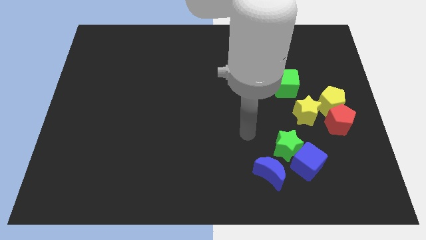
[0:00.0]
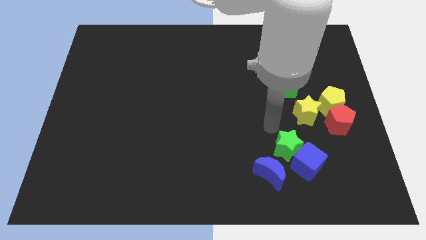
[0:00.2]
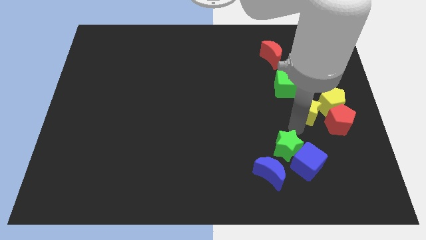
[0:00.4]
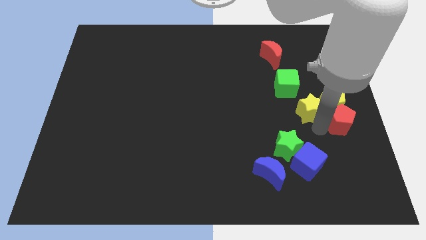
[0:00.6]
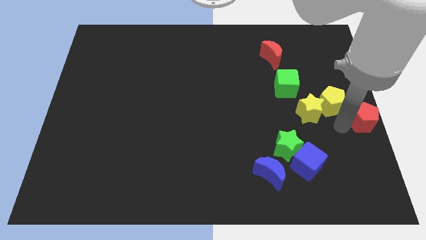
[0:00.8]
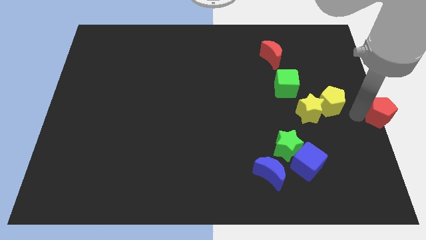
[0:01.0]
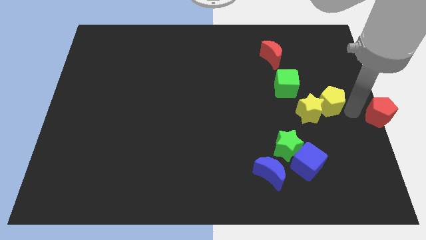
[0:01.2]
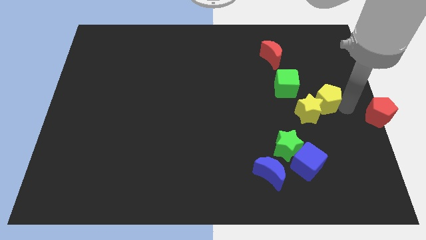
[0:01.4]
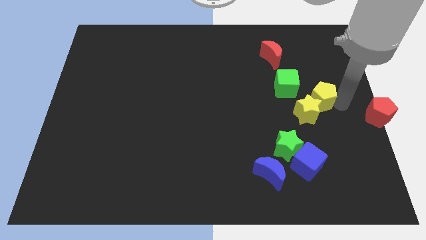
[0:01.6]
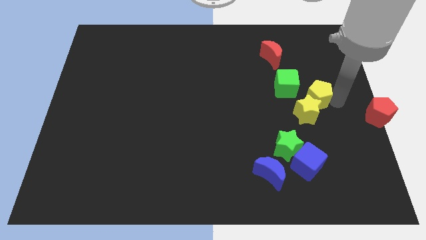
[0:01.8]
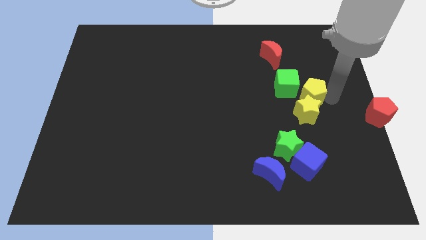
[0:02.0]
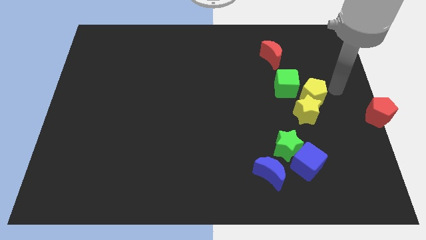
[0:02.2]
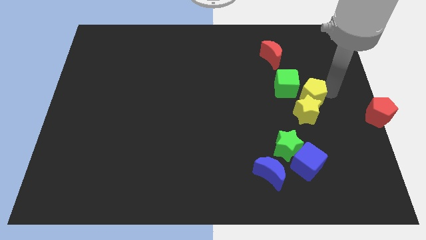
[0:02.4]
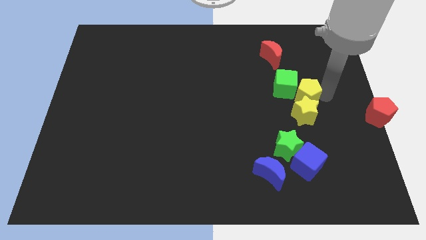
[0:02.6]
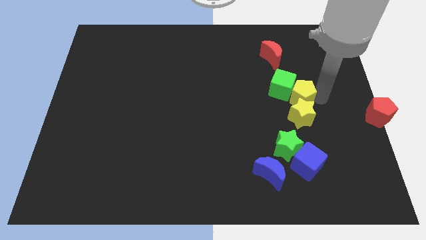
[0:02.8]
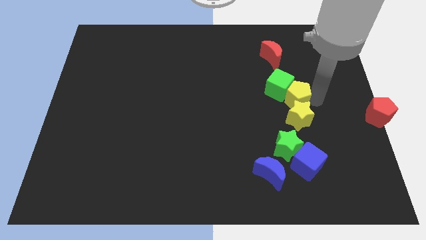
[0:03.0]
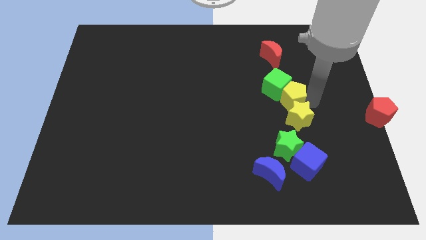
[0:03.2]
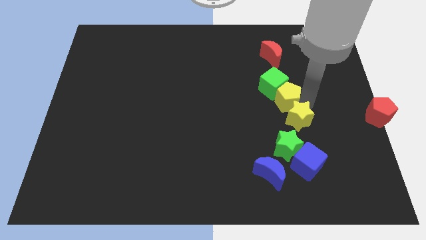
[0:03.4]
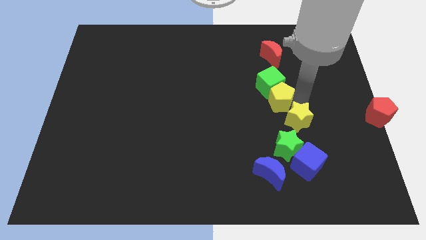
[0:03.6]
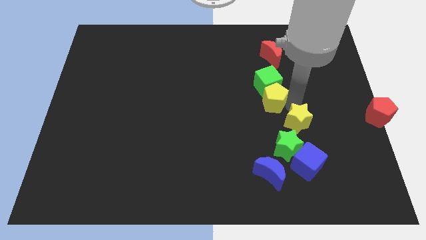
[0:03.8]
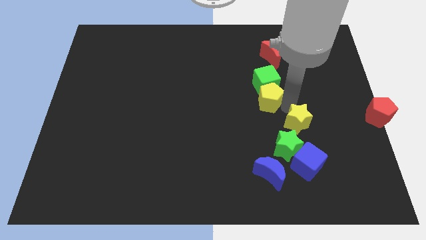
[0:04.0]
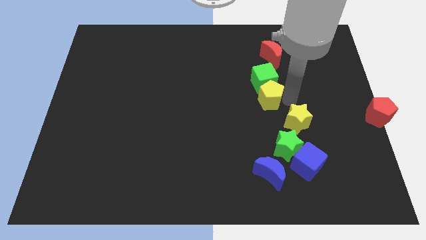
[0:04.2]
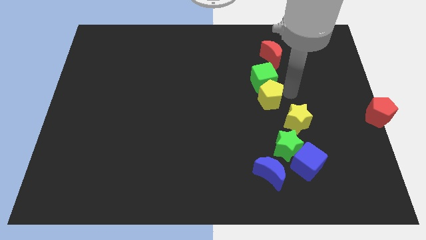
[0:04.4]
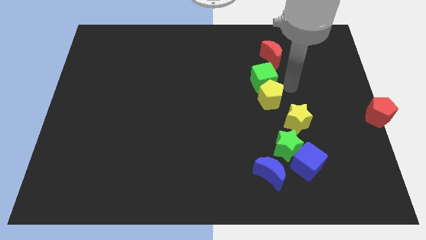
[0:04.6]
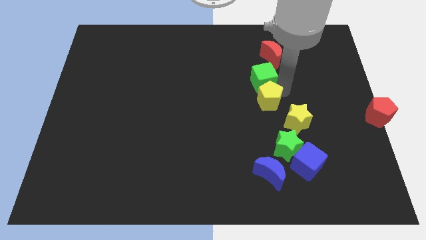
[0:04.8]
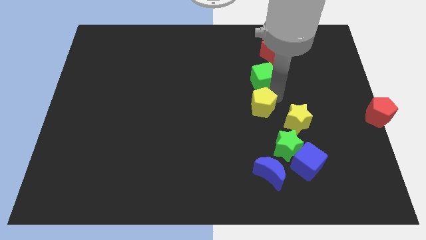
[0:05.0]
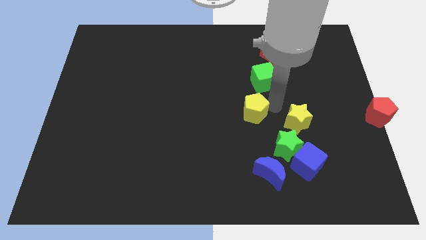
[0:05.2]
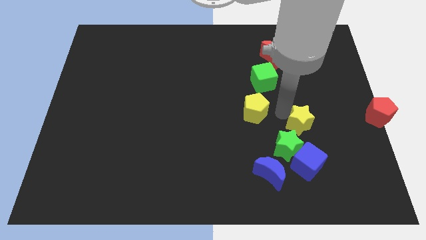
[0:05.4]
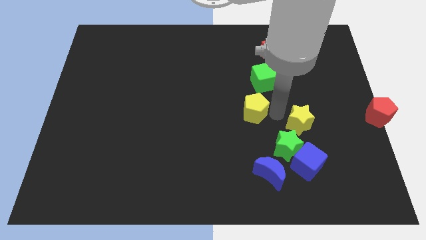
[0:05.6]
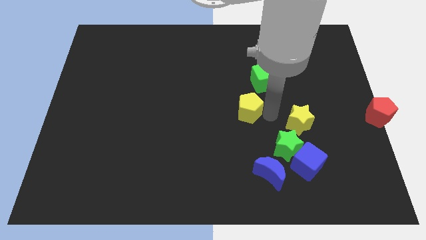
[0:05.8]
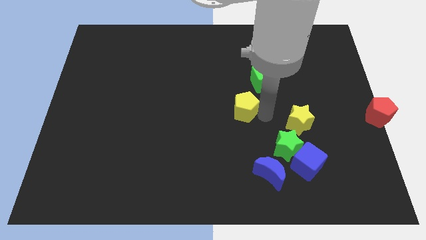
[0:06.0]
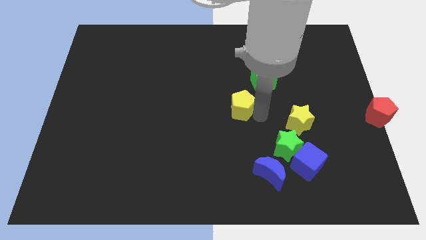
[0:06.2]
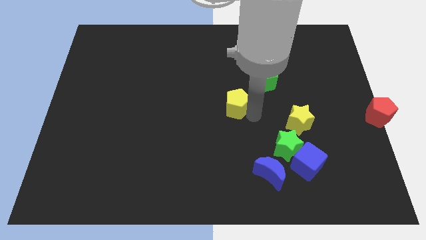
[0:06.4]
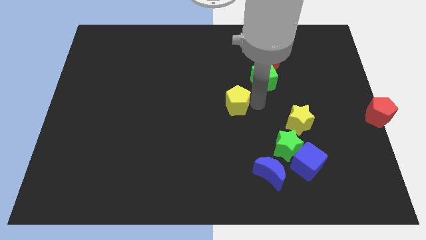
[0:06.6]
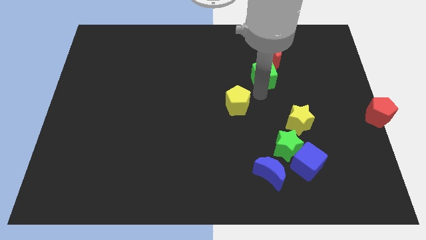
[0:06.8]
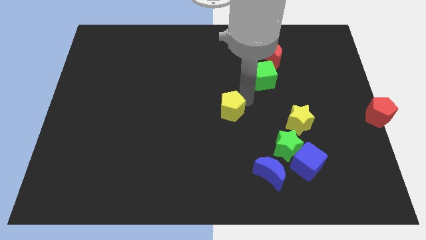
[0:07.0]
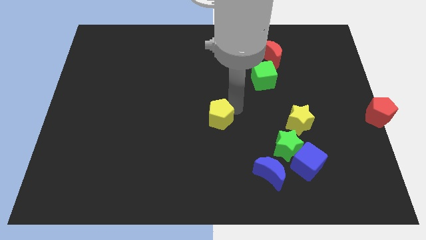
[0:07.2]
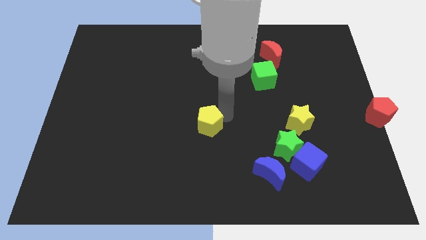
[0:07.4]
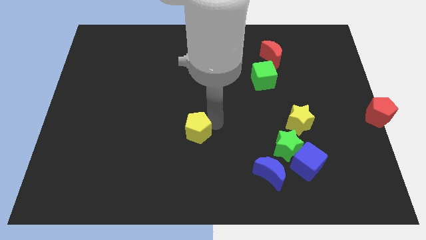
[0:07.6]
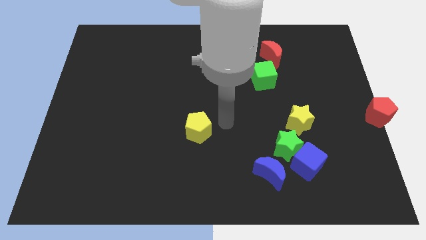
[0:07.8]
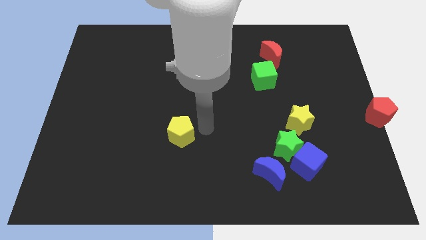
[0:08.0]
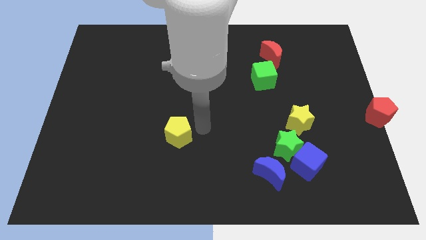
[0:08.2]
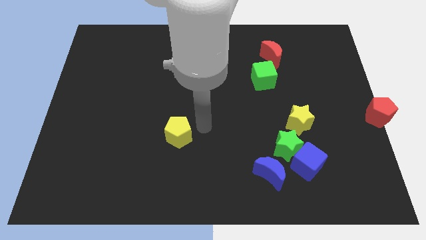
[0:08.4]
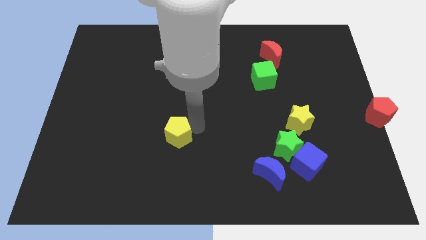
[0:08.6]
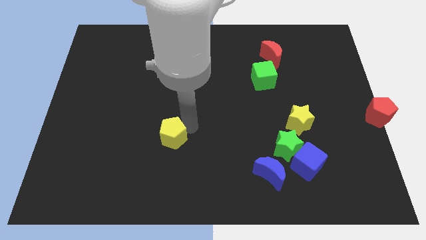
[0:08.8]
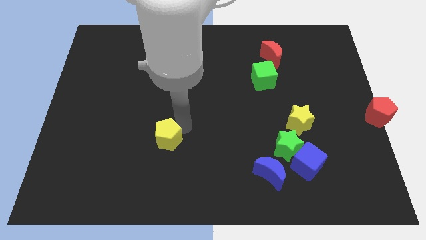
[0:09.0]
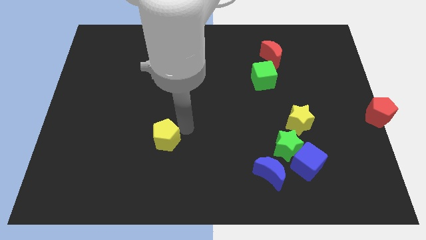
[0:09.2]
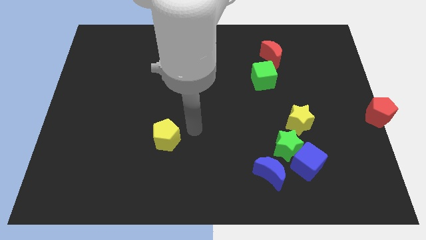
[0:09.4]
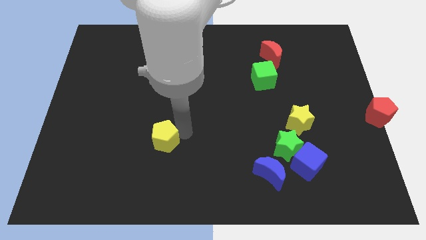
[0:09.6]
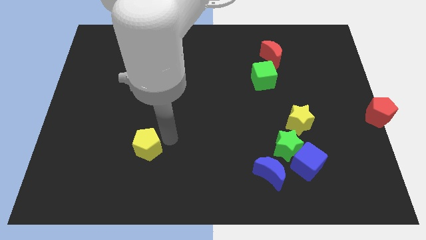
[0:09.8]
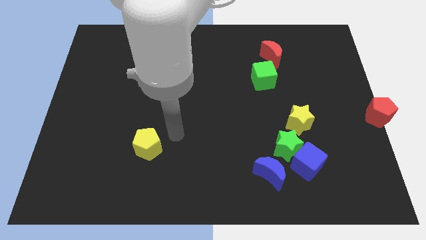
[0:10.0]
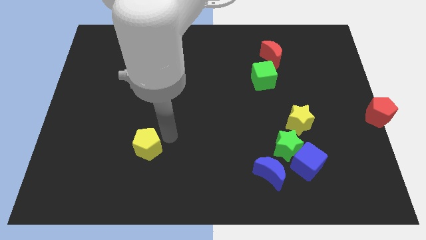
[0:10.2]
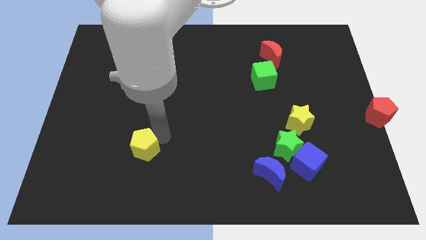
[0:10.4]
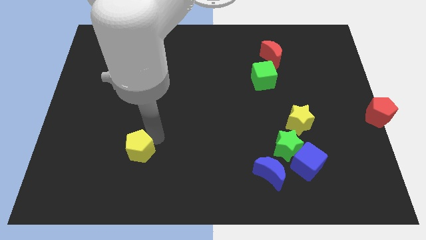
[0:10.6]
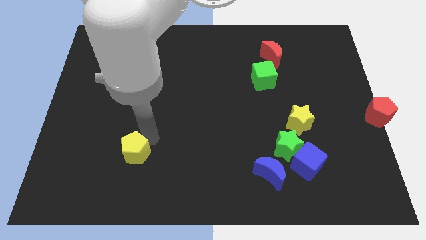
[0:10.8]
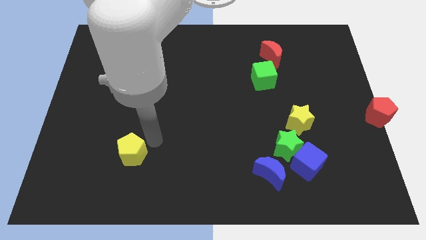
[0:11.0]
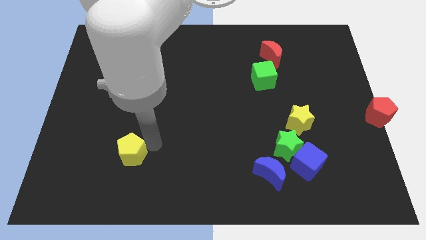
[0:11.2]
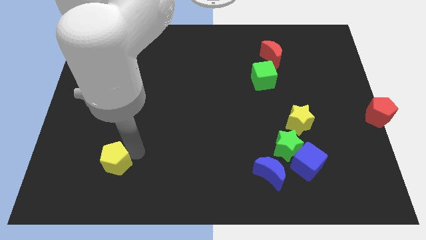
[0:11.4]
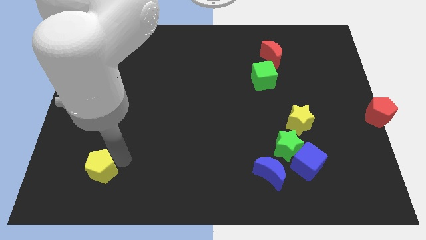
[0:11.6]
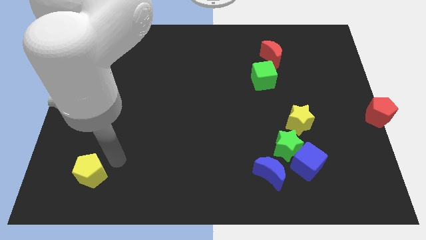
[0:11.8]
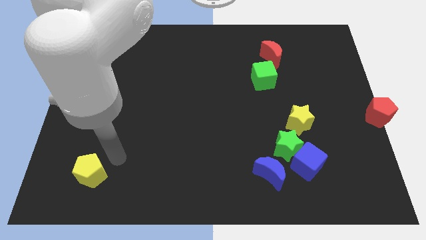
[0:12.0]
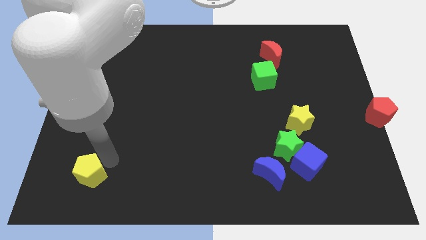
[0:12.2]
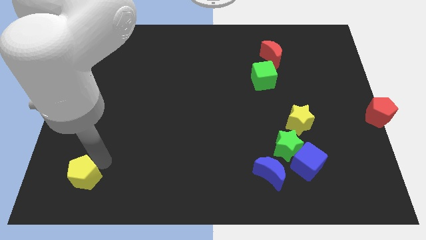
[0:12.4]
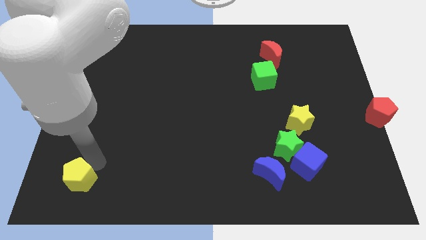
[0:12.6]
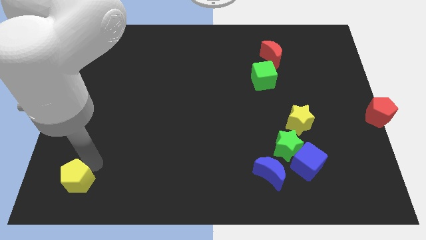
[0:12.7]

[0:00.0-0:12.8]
put the yellow pentagon to the bottom left
